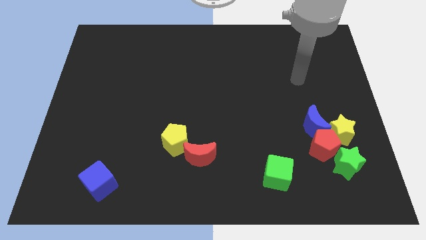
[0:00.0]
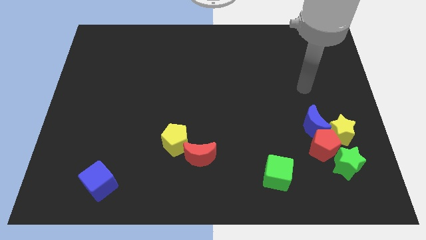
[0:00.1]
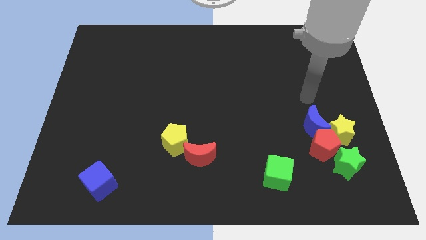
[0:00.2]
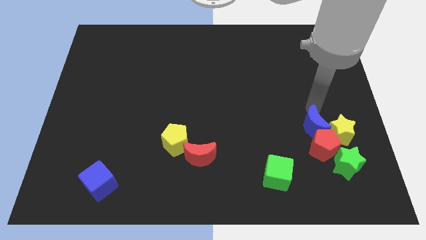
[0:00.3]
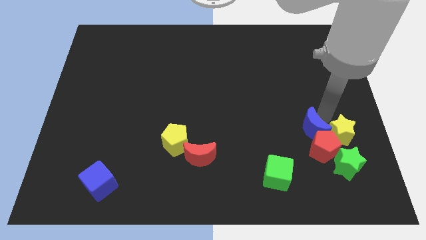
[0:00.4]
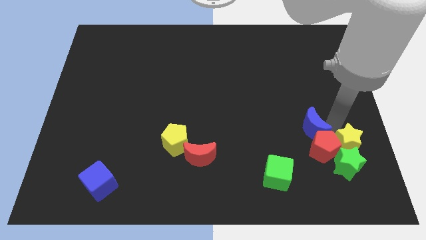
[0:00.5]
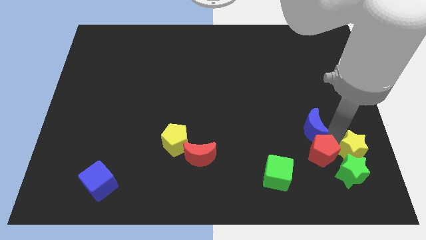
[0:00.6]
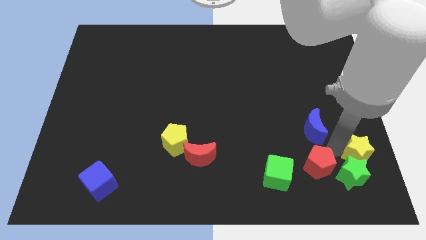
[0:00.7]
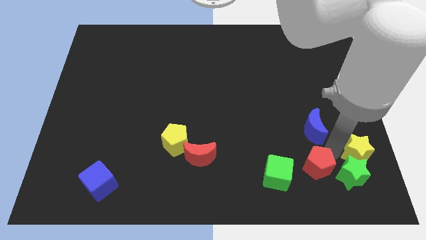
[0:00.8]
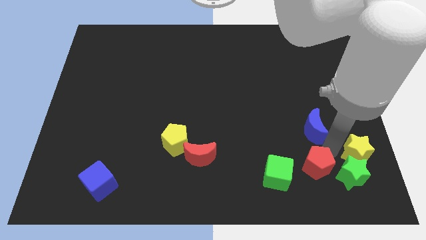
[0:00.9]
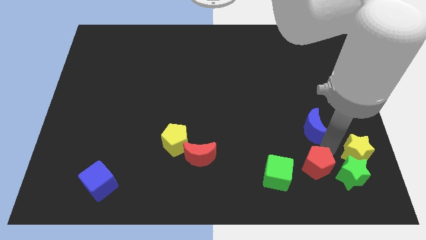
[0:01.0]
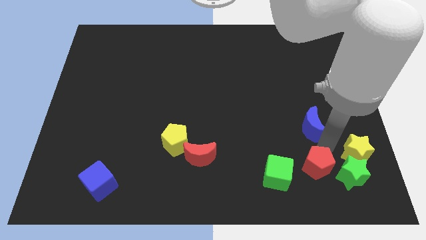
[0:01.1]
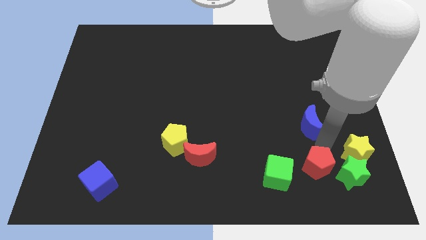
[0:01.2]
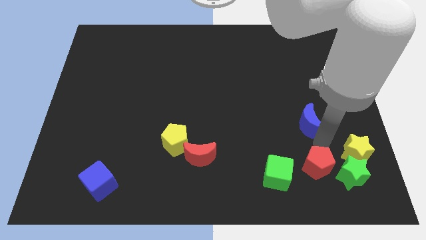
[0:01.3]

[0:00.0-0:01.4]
move the blue moon away from the red pentagon and yellow star
